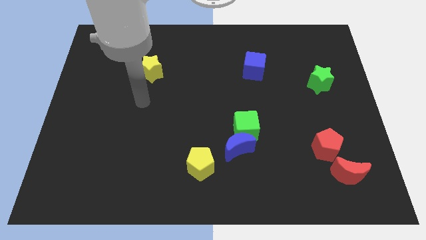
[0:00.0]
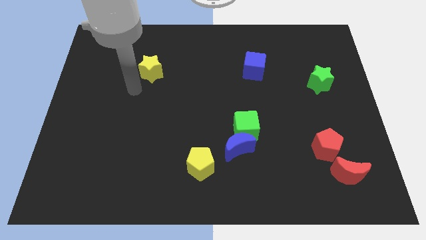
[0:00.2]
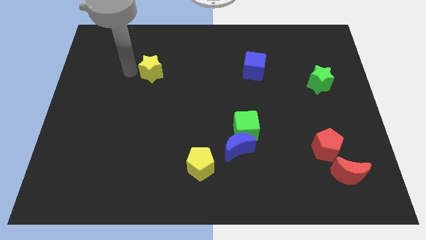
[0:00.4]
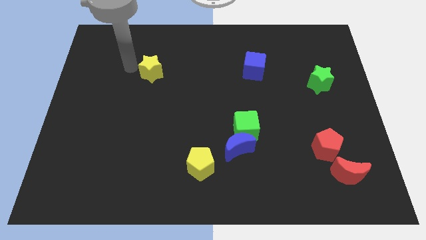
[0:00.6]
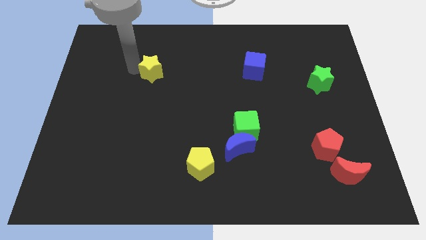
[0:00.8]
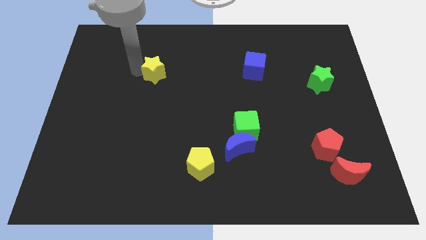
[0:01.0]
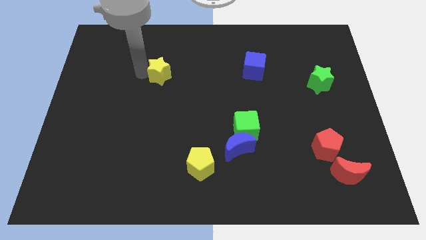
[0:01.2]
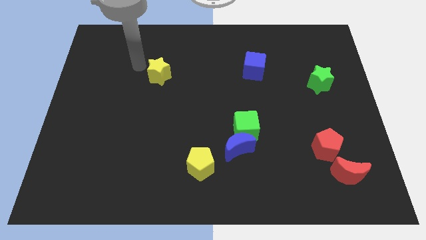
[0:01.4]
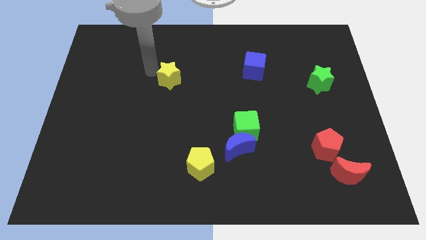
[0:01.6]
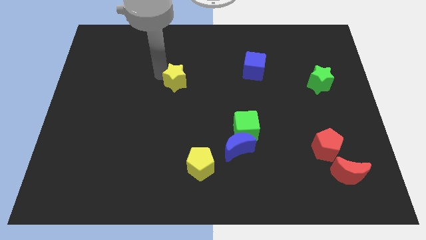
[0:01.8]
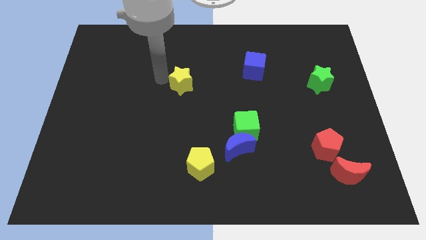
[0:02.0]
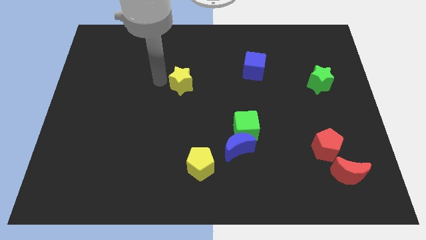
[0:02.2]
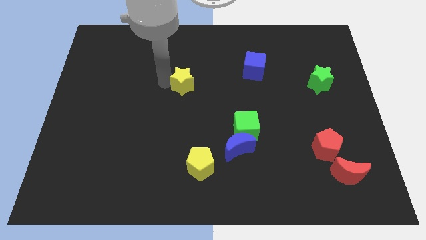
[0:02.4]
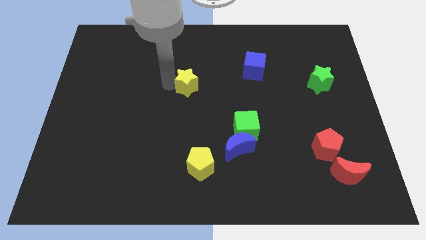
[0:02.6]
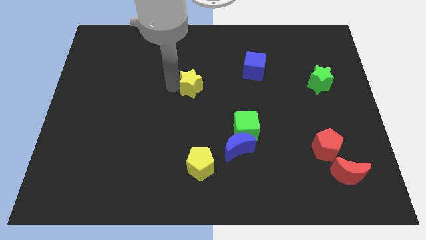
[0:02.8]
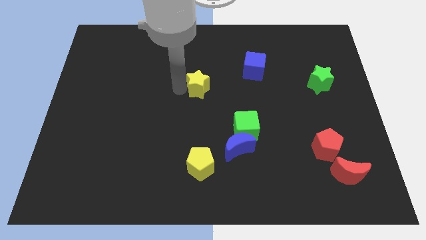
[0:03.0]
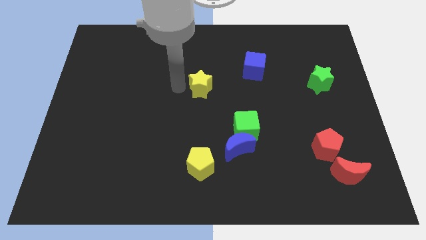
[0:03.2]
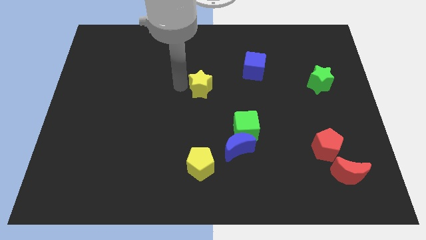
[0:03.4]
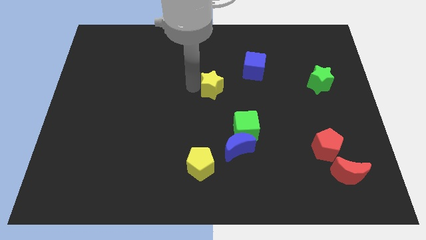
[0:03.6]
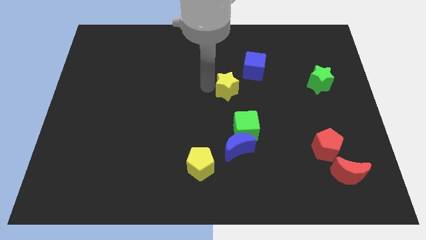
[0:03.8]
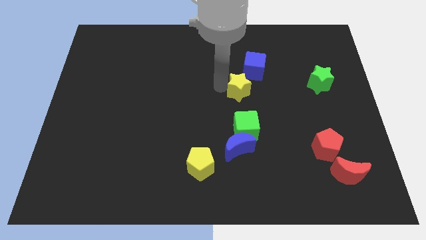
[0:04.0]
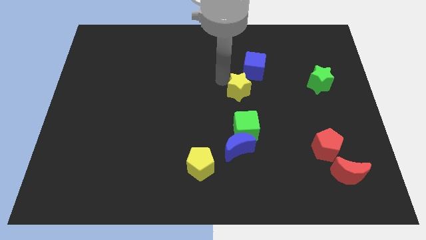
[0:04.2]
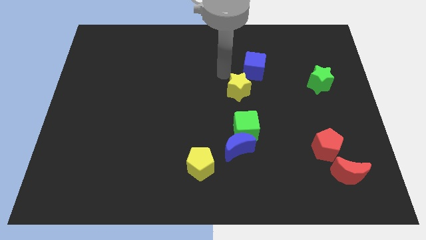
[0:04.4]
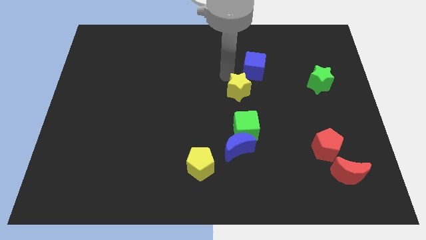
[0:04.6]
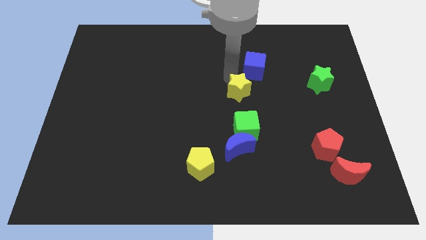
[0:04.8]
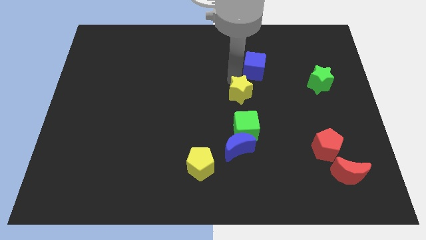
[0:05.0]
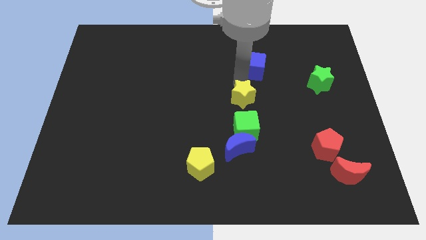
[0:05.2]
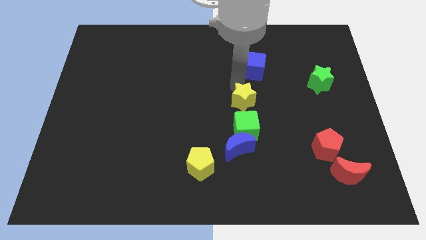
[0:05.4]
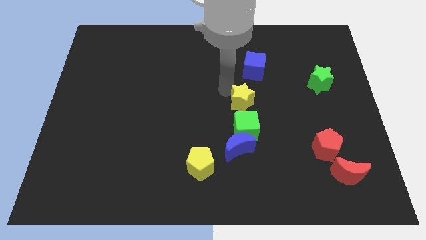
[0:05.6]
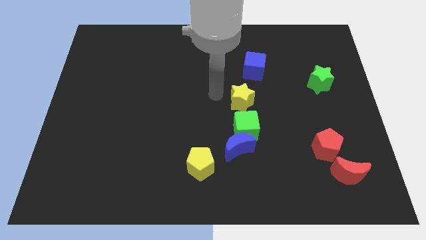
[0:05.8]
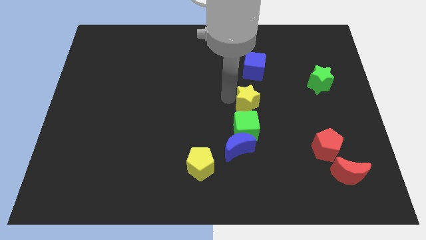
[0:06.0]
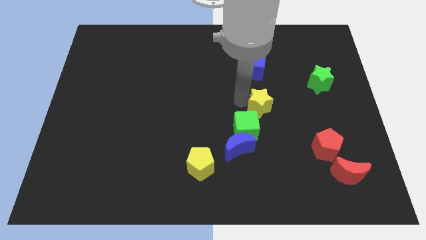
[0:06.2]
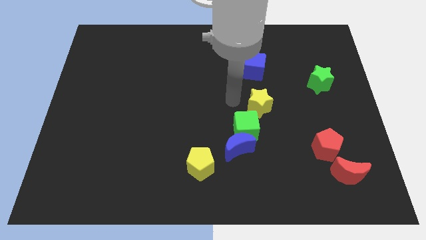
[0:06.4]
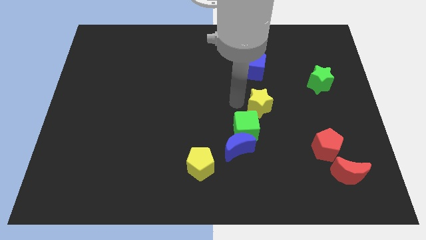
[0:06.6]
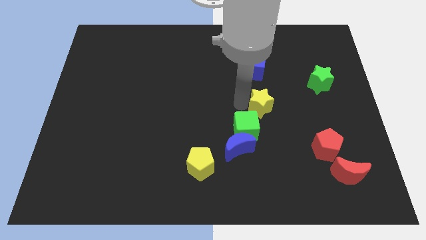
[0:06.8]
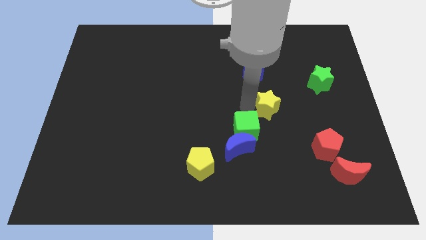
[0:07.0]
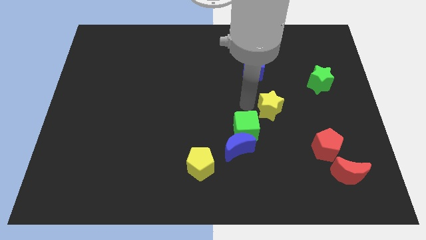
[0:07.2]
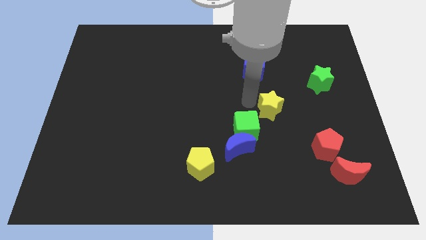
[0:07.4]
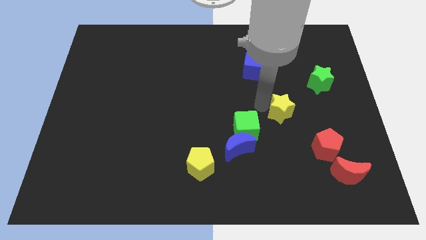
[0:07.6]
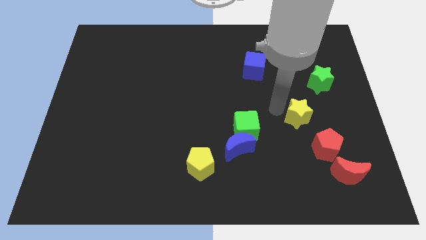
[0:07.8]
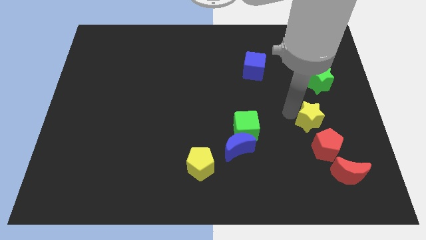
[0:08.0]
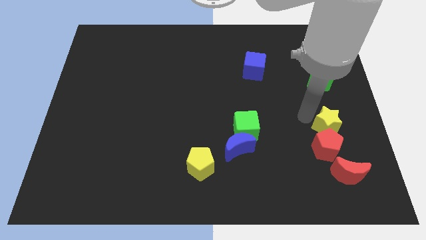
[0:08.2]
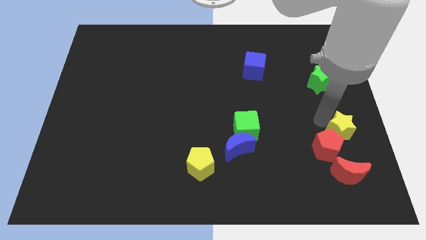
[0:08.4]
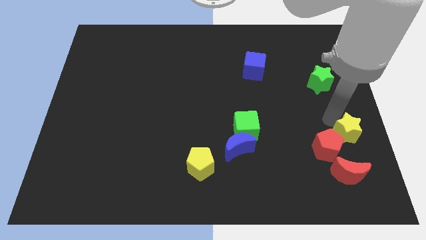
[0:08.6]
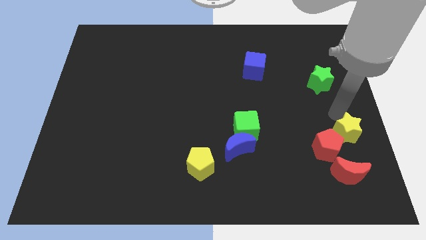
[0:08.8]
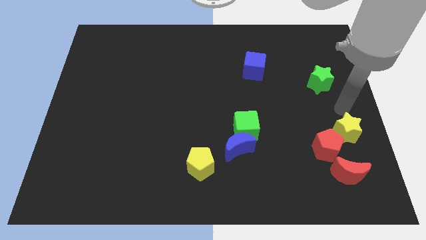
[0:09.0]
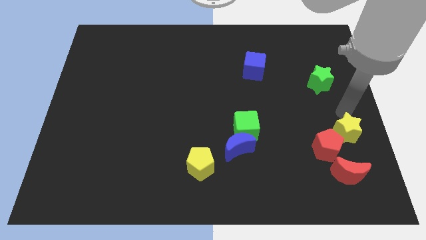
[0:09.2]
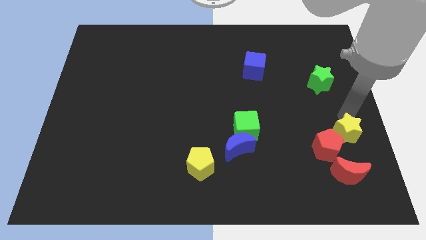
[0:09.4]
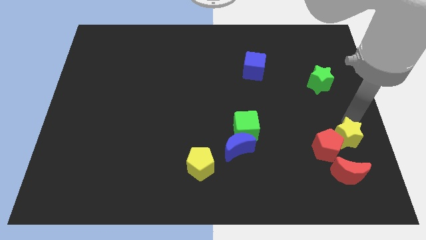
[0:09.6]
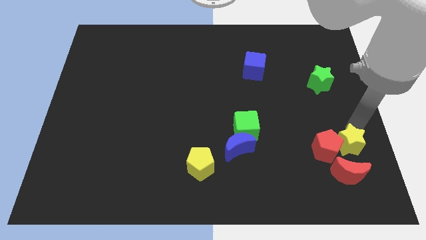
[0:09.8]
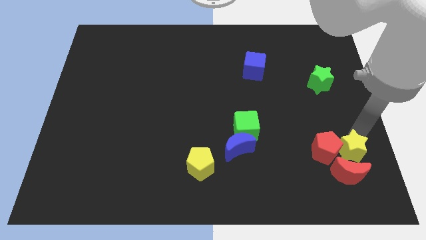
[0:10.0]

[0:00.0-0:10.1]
put the yellow star to the red moon

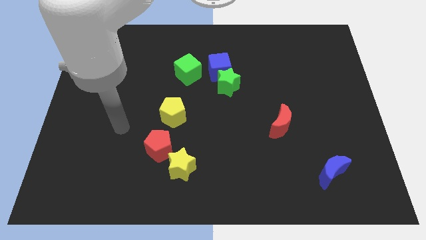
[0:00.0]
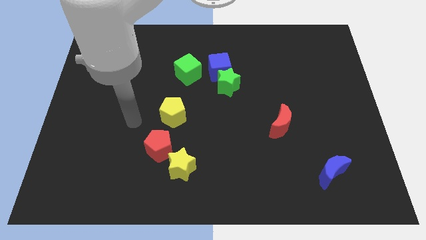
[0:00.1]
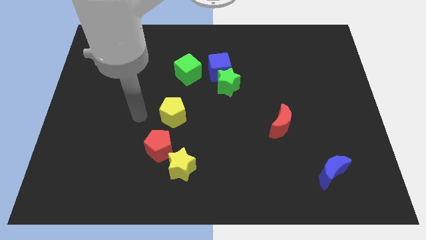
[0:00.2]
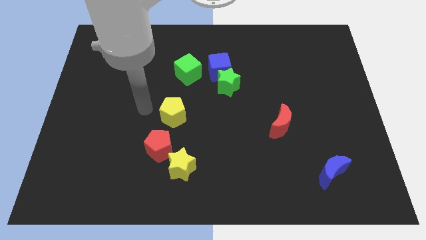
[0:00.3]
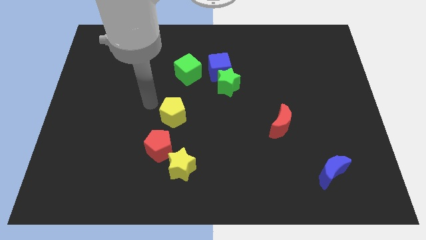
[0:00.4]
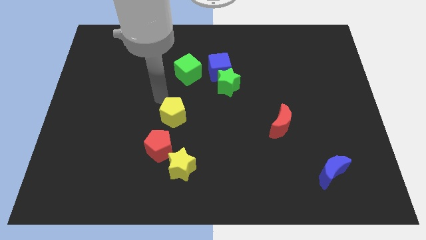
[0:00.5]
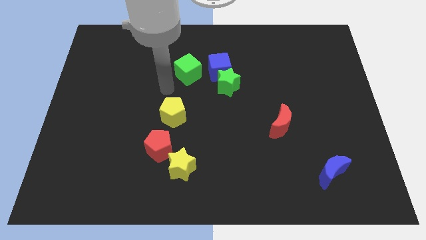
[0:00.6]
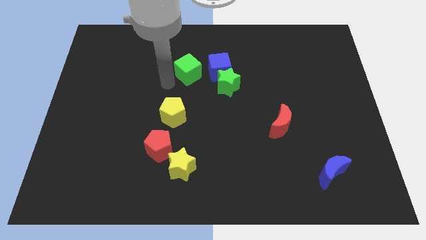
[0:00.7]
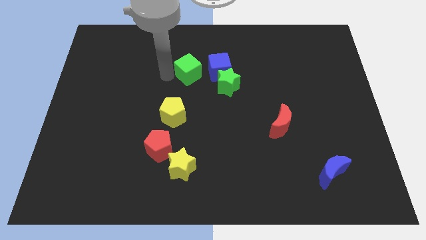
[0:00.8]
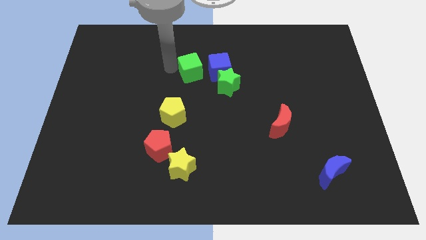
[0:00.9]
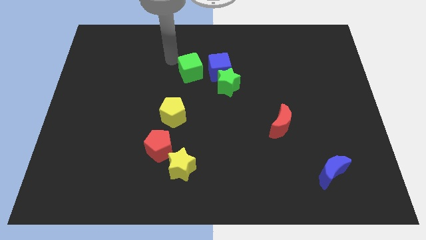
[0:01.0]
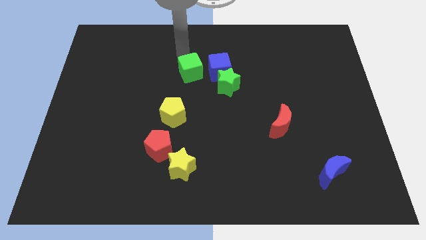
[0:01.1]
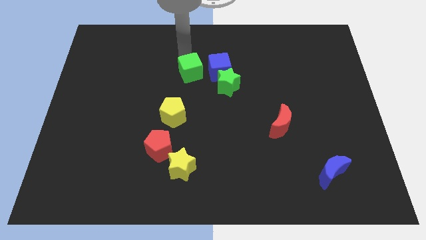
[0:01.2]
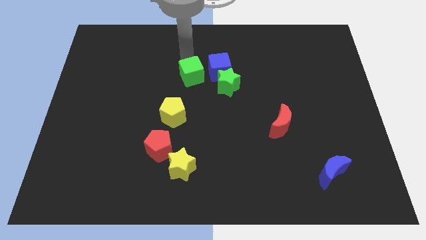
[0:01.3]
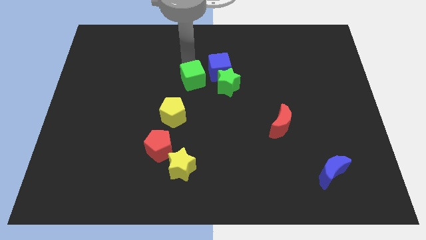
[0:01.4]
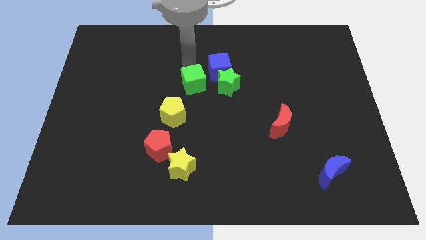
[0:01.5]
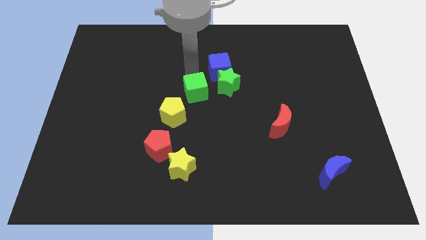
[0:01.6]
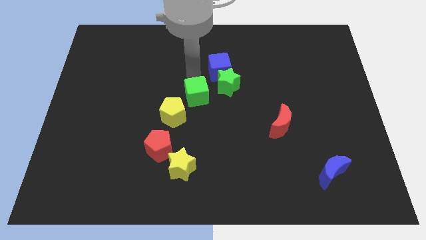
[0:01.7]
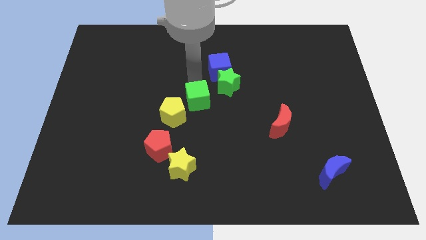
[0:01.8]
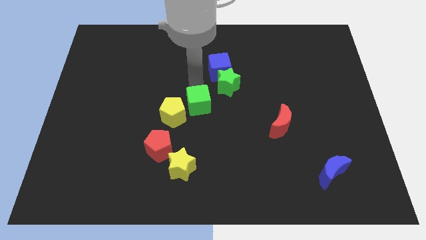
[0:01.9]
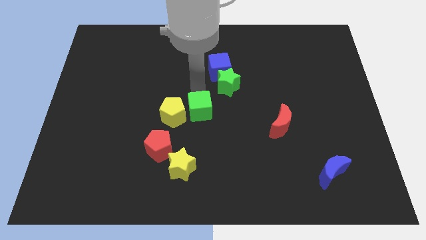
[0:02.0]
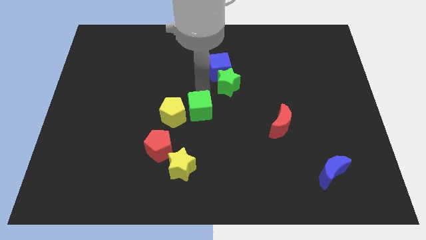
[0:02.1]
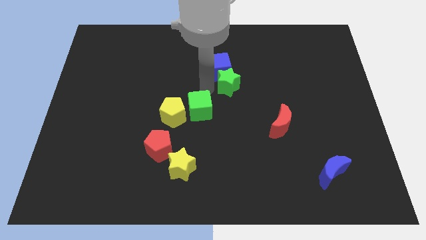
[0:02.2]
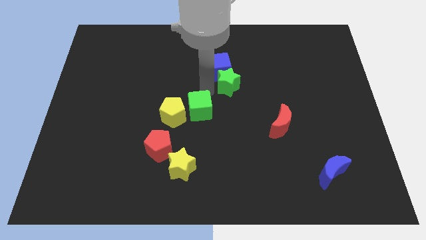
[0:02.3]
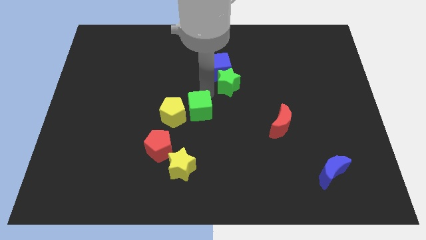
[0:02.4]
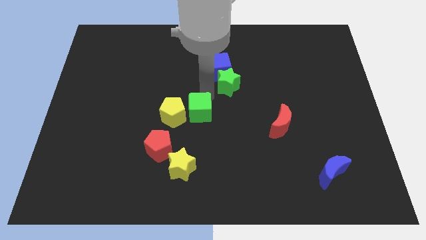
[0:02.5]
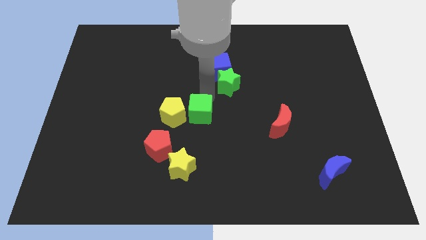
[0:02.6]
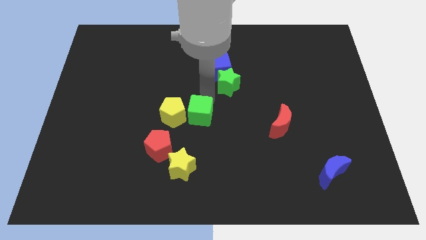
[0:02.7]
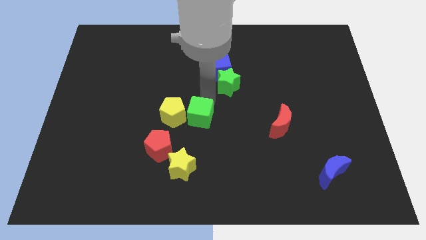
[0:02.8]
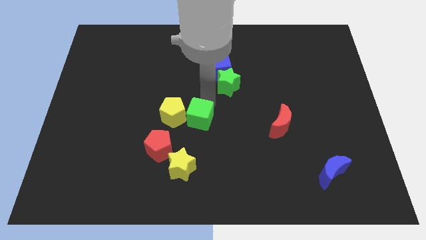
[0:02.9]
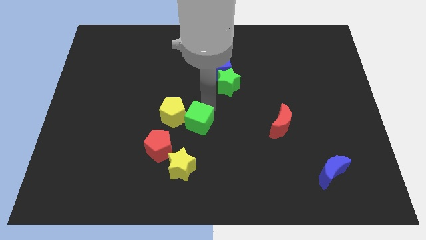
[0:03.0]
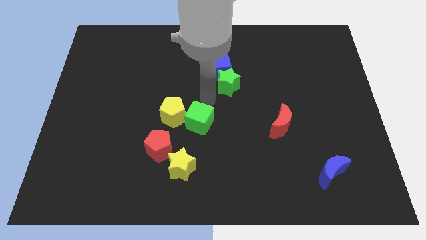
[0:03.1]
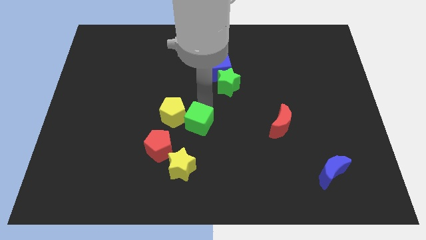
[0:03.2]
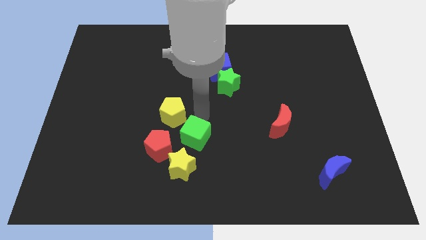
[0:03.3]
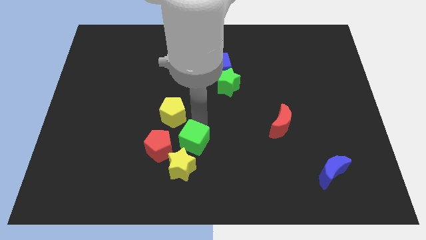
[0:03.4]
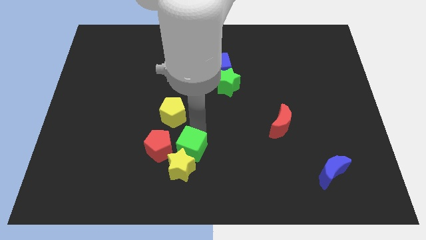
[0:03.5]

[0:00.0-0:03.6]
slide the green cube close to the yellow star
